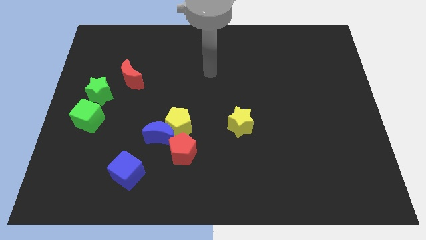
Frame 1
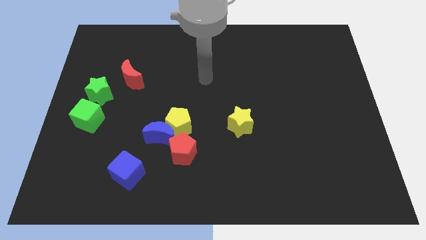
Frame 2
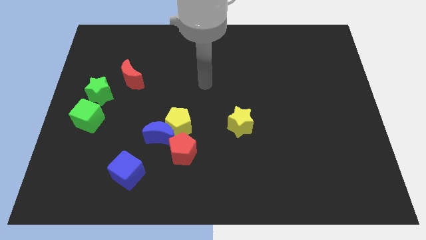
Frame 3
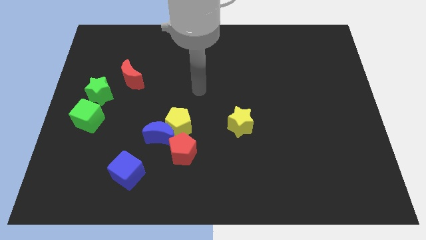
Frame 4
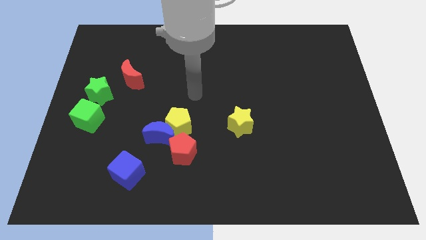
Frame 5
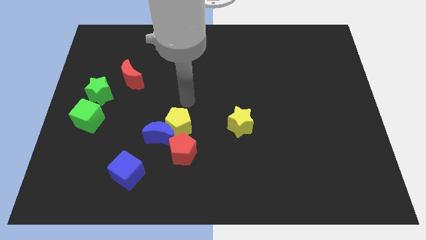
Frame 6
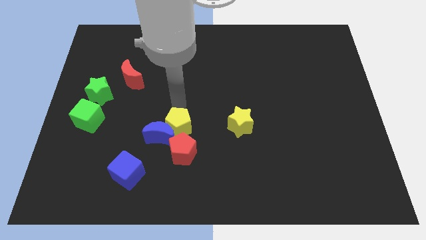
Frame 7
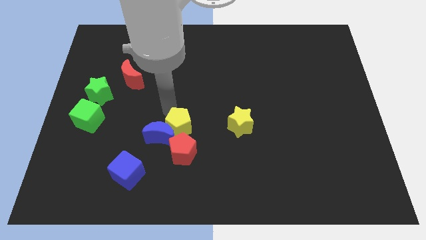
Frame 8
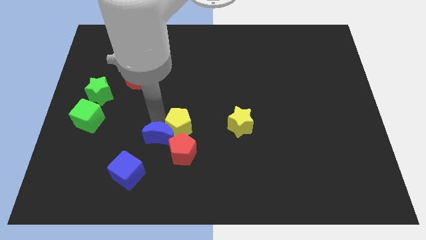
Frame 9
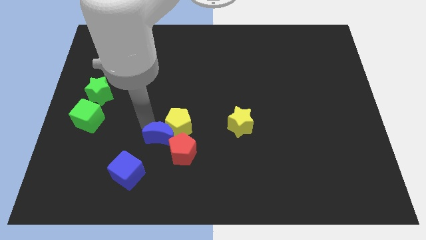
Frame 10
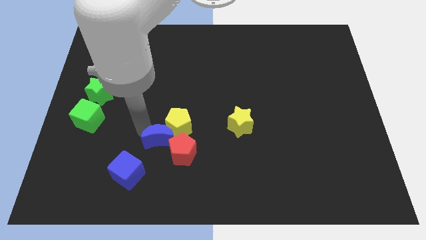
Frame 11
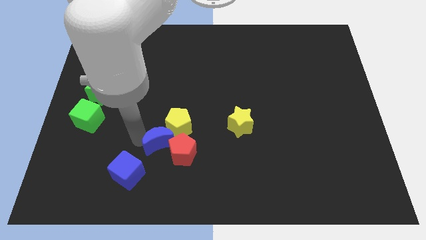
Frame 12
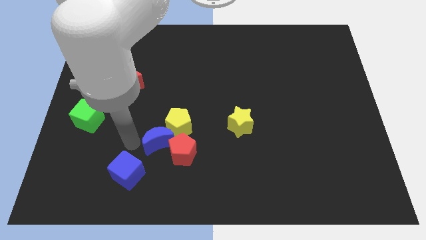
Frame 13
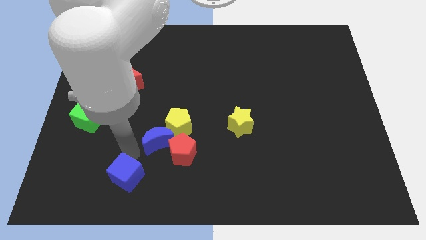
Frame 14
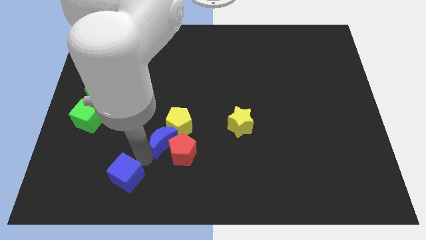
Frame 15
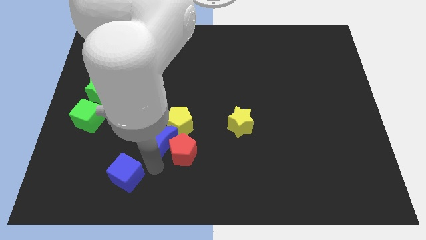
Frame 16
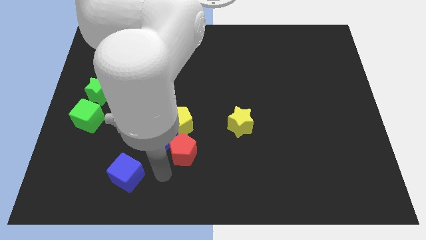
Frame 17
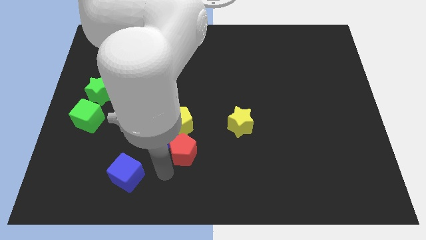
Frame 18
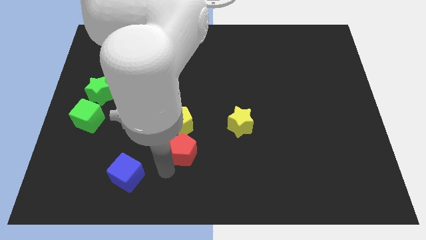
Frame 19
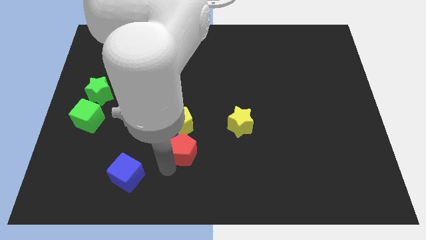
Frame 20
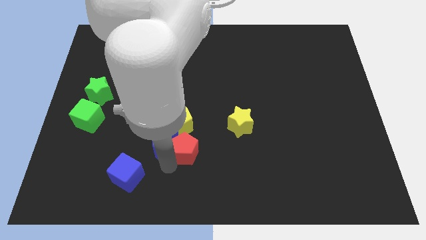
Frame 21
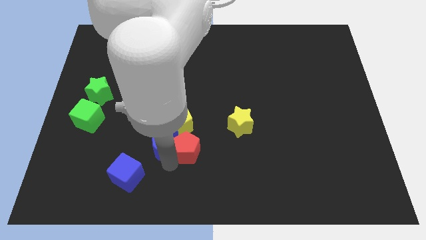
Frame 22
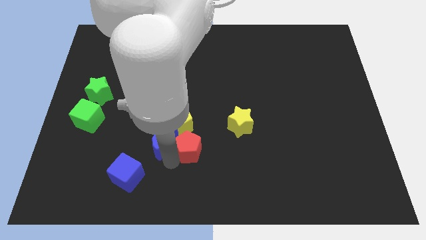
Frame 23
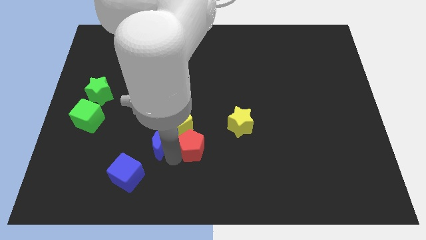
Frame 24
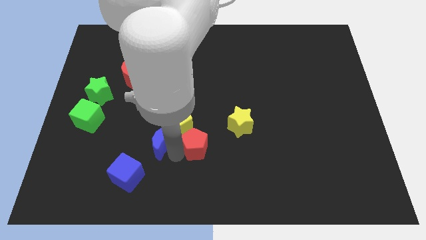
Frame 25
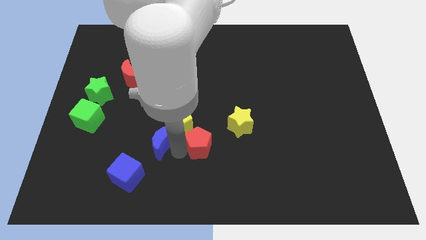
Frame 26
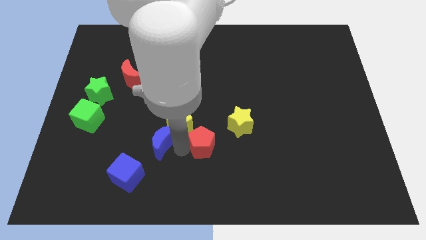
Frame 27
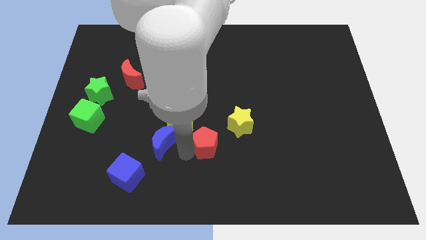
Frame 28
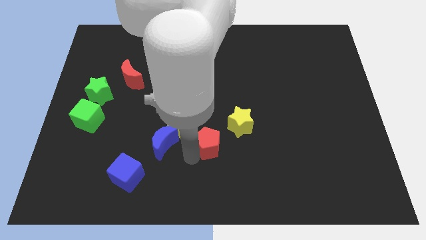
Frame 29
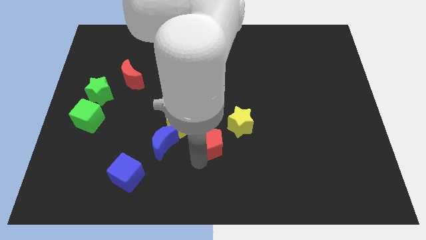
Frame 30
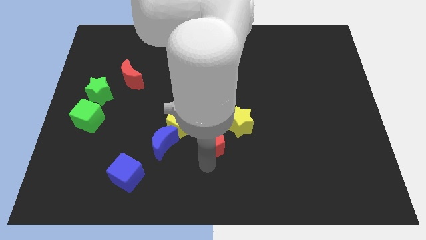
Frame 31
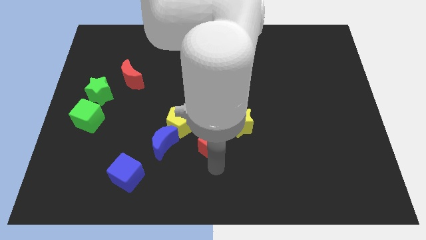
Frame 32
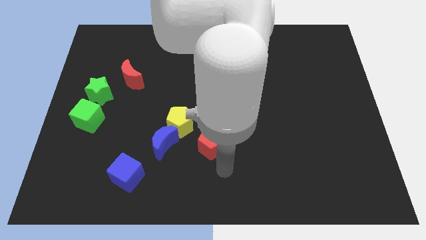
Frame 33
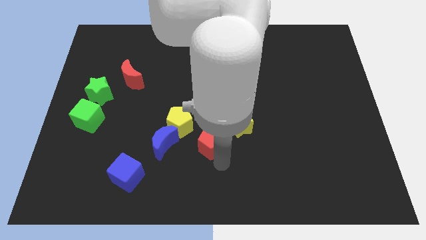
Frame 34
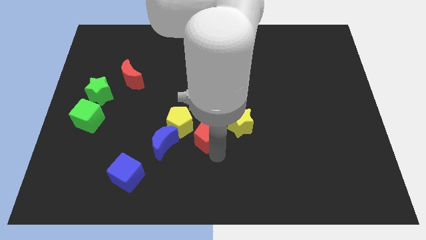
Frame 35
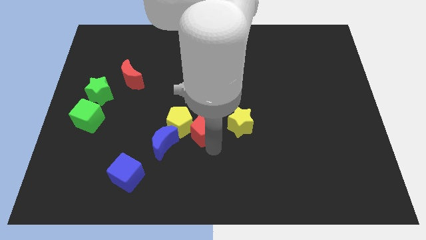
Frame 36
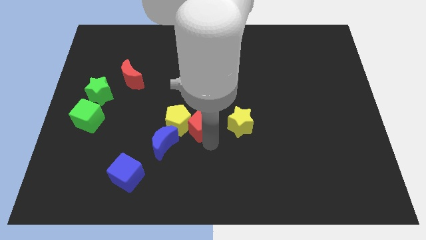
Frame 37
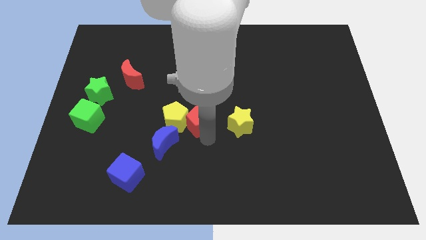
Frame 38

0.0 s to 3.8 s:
move the red pentagon upwards a little

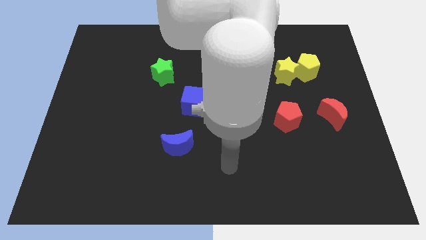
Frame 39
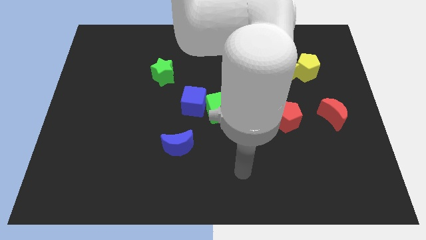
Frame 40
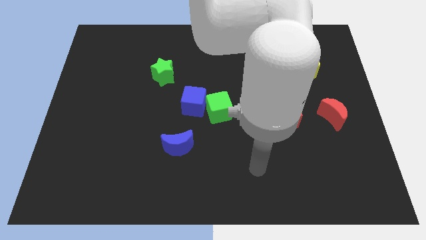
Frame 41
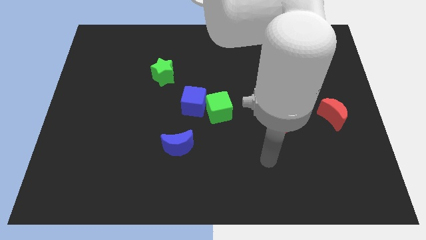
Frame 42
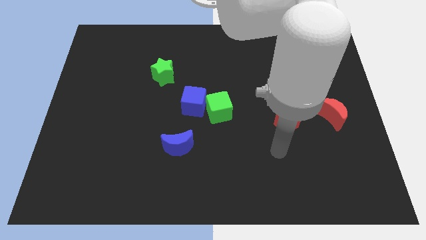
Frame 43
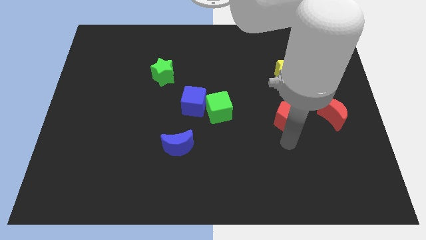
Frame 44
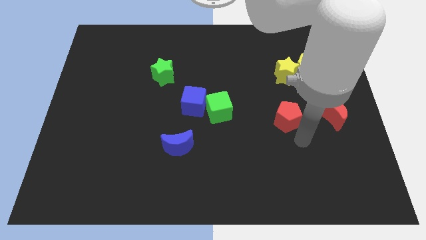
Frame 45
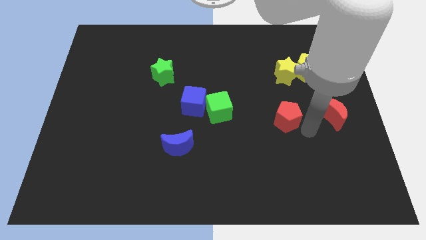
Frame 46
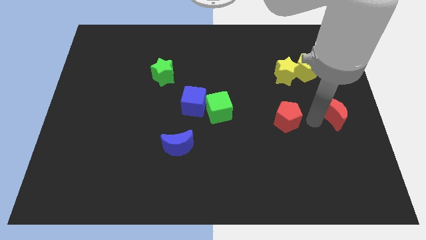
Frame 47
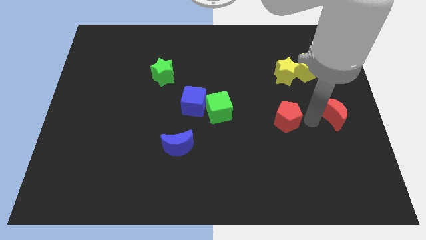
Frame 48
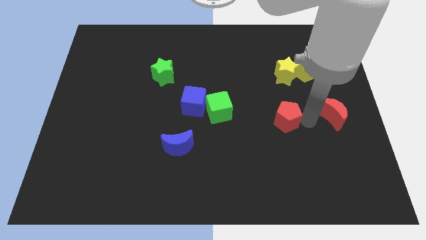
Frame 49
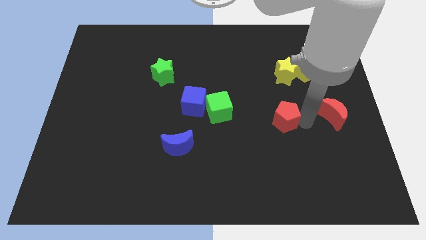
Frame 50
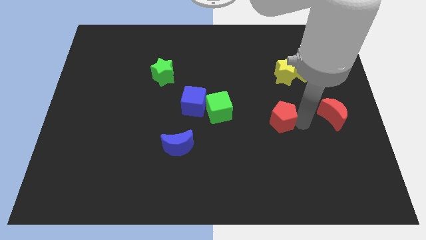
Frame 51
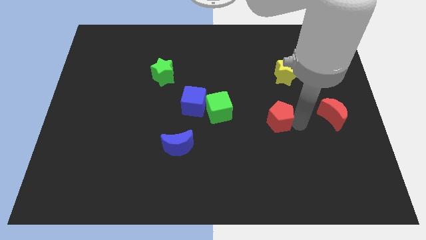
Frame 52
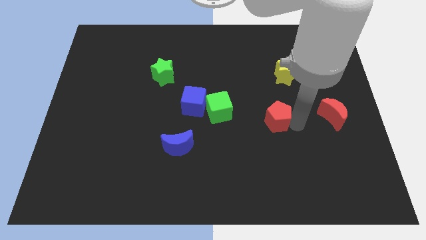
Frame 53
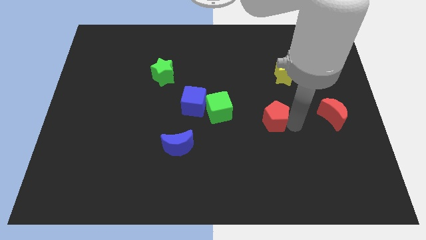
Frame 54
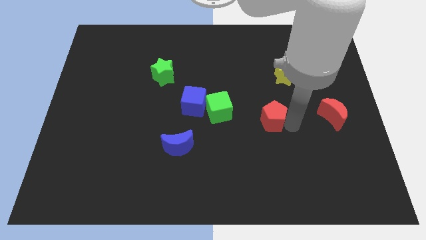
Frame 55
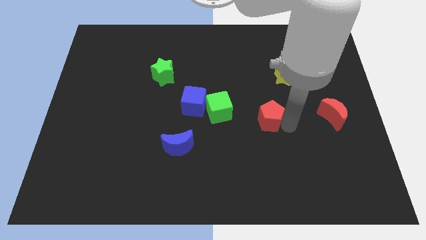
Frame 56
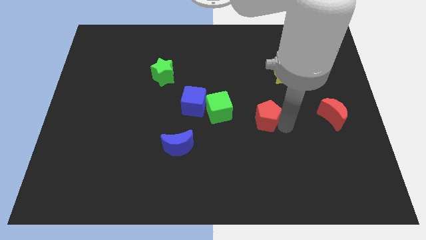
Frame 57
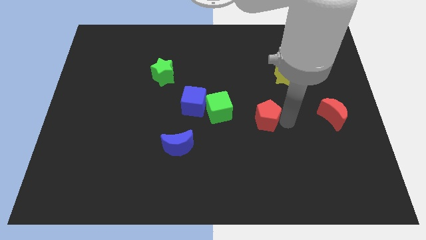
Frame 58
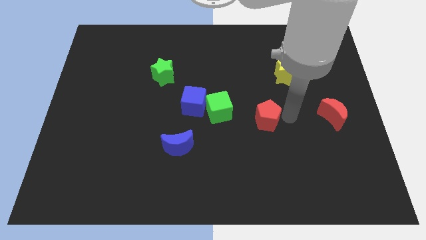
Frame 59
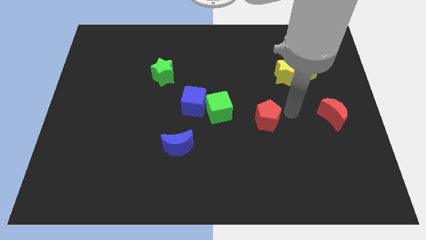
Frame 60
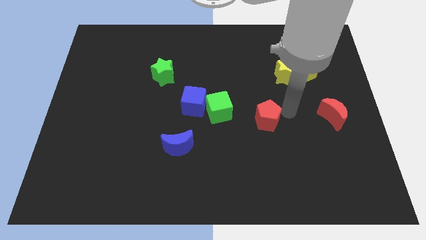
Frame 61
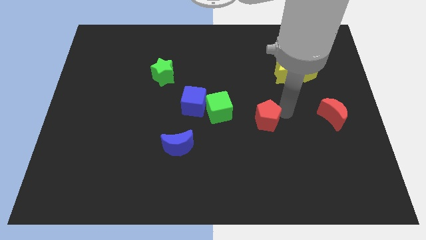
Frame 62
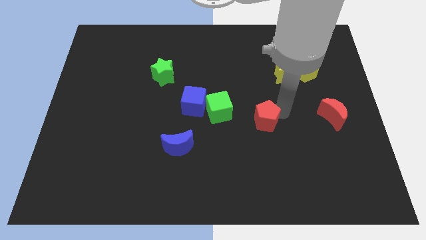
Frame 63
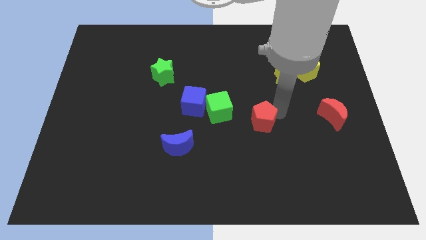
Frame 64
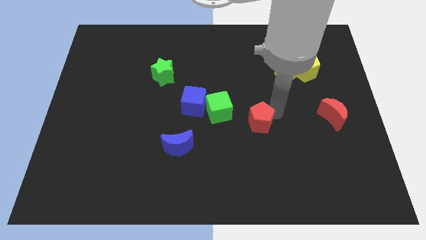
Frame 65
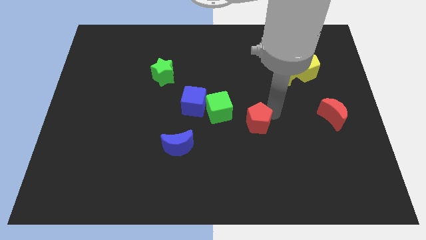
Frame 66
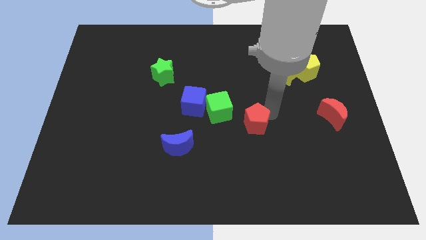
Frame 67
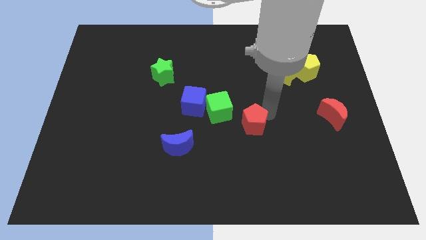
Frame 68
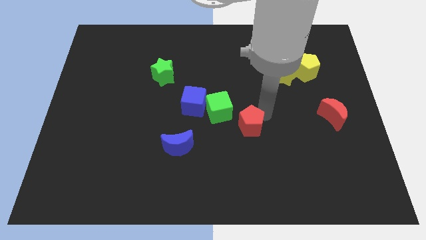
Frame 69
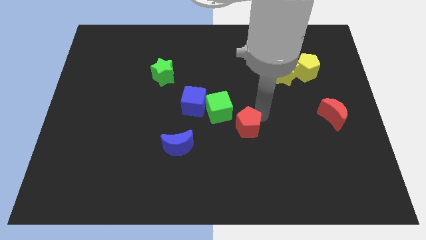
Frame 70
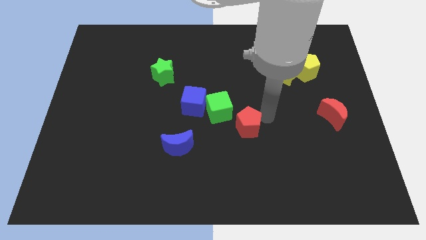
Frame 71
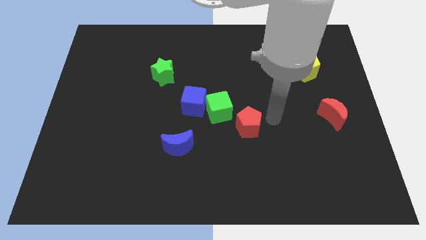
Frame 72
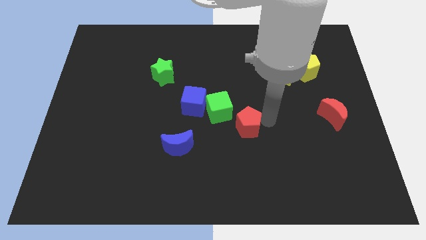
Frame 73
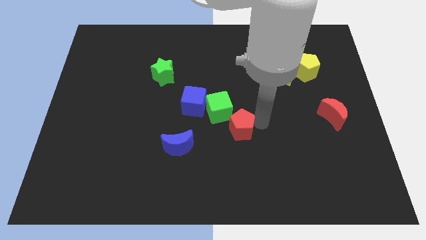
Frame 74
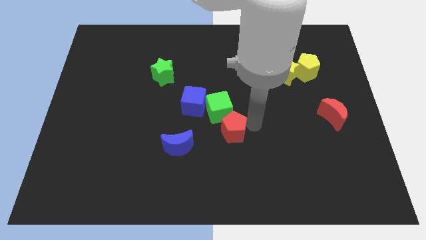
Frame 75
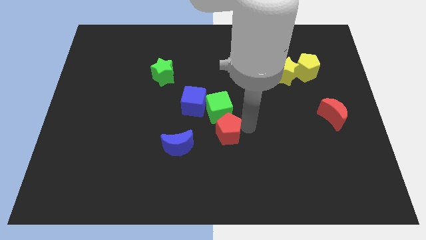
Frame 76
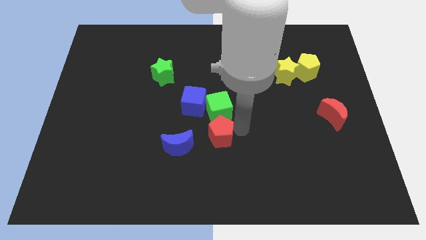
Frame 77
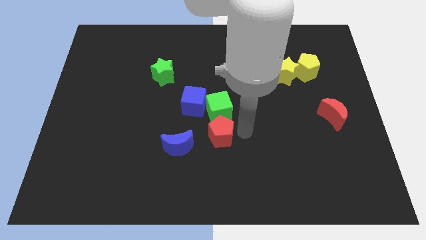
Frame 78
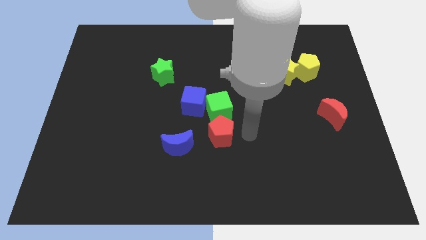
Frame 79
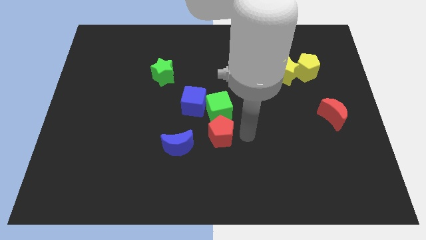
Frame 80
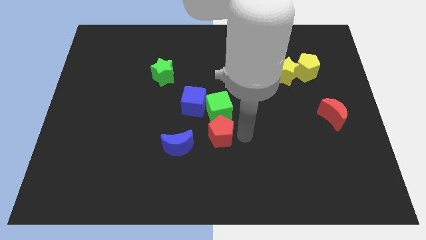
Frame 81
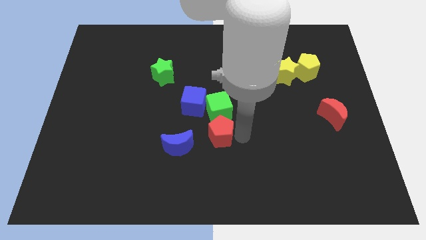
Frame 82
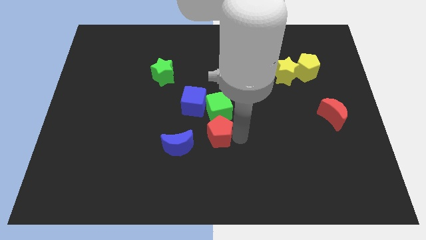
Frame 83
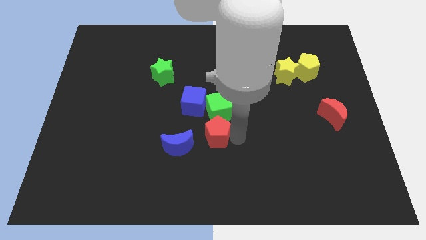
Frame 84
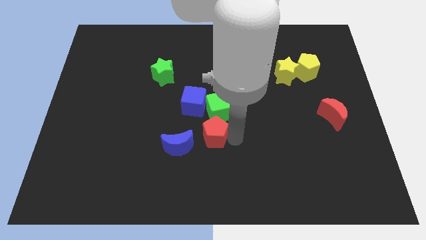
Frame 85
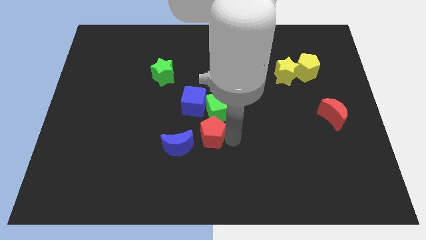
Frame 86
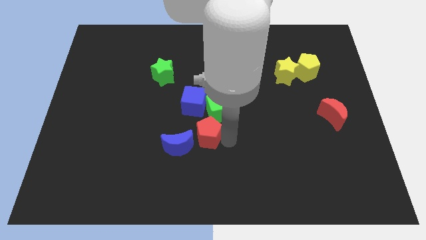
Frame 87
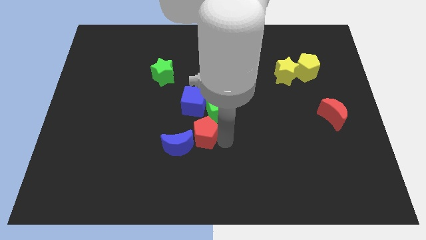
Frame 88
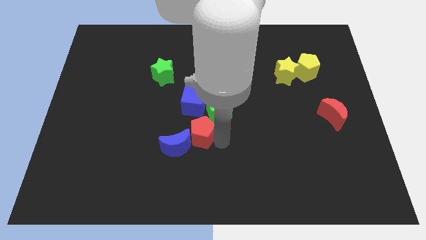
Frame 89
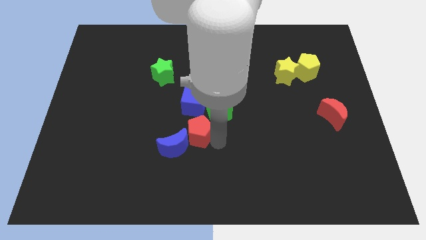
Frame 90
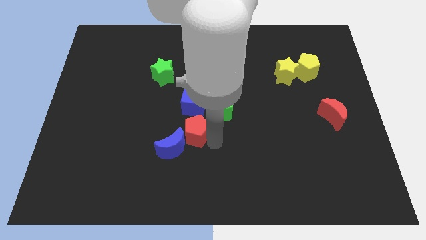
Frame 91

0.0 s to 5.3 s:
slide the red pentagon left
